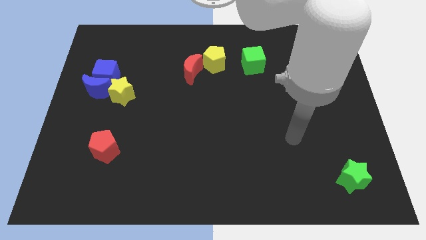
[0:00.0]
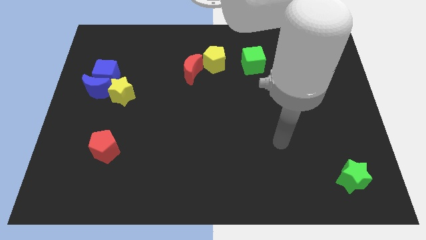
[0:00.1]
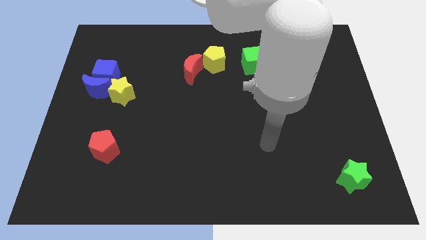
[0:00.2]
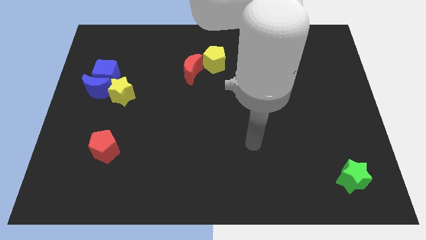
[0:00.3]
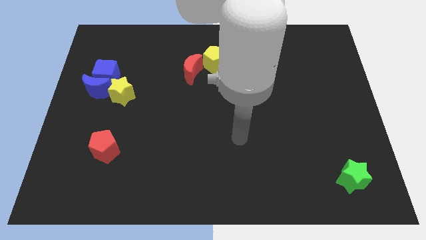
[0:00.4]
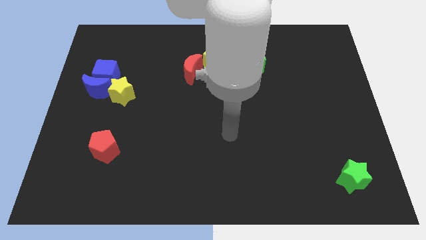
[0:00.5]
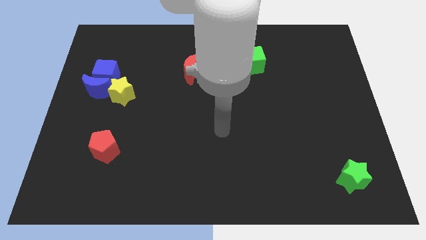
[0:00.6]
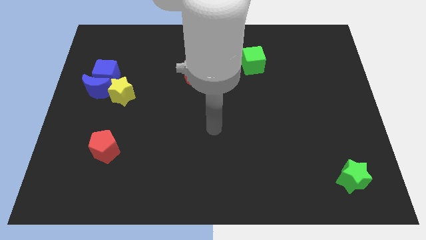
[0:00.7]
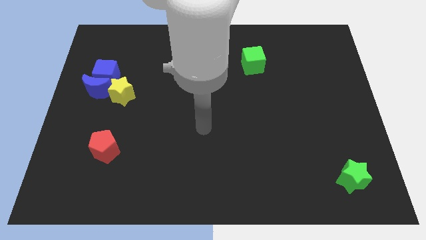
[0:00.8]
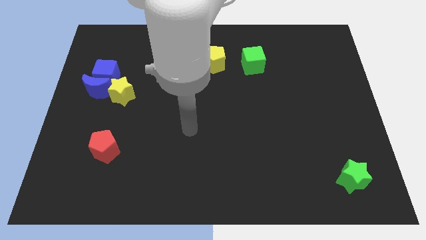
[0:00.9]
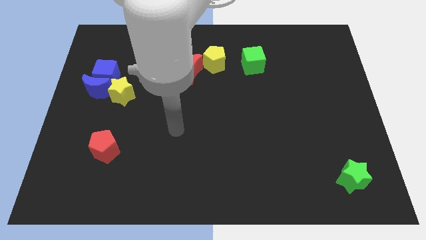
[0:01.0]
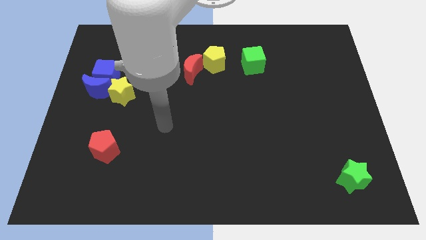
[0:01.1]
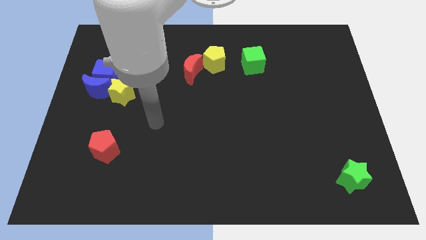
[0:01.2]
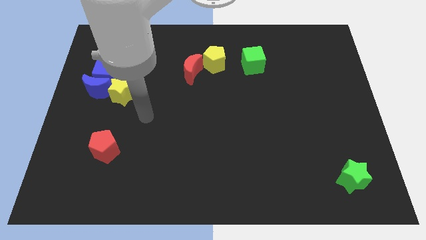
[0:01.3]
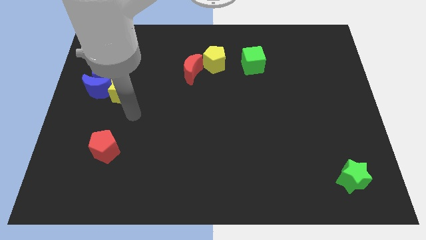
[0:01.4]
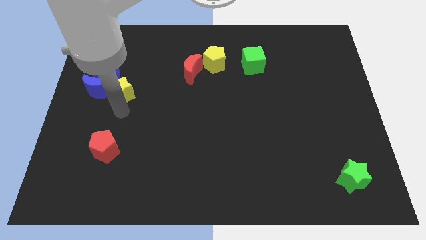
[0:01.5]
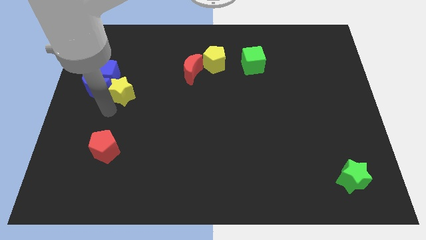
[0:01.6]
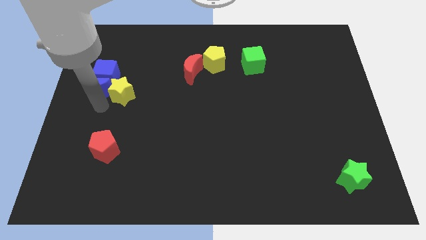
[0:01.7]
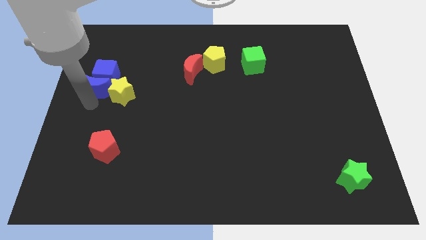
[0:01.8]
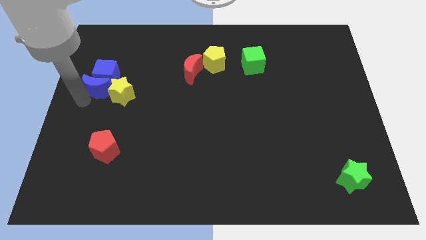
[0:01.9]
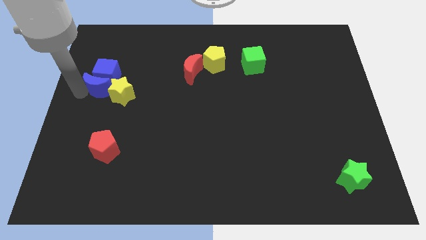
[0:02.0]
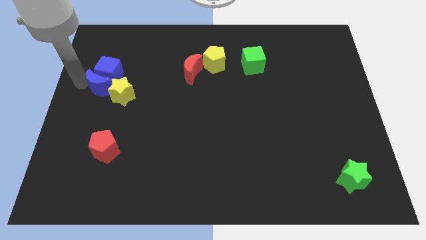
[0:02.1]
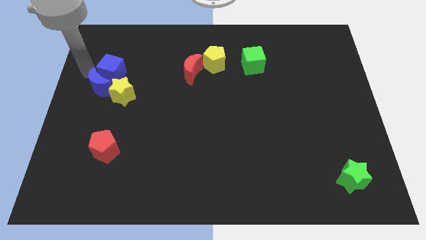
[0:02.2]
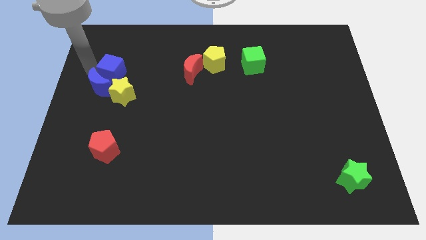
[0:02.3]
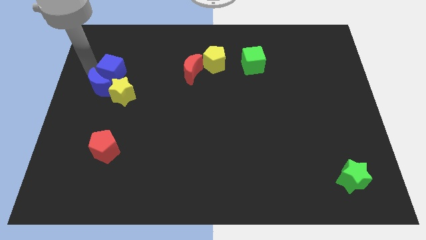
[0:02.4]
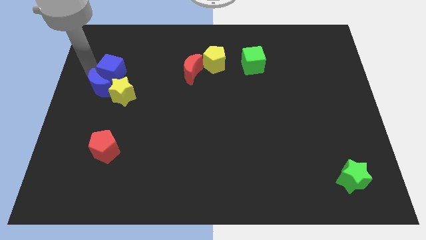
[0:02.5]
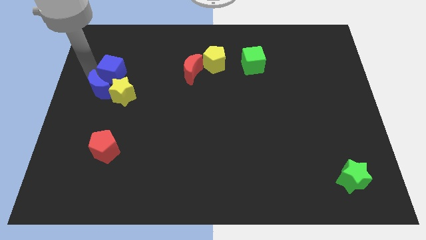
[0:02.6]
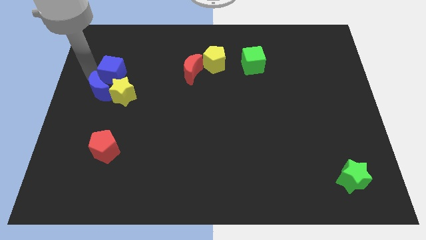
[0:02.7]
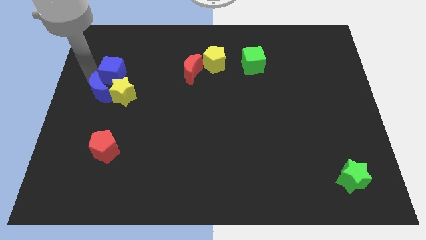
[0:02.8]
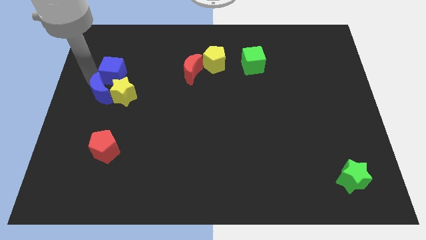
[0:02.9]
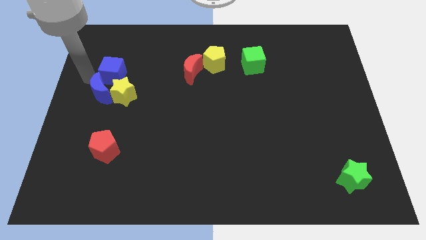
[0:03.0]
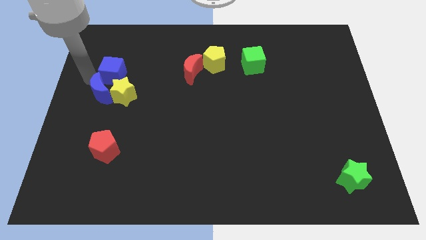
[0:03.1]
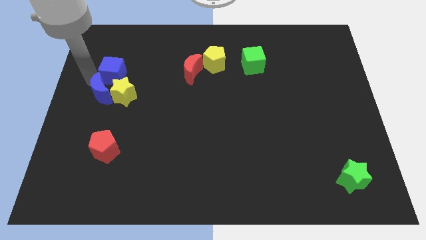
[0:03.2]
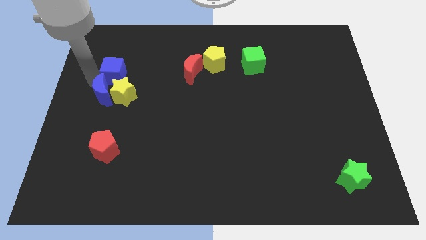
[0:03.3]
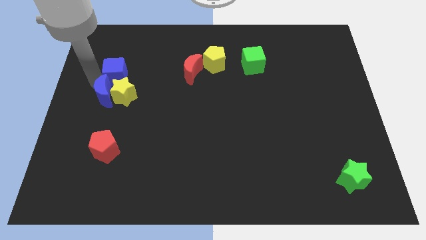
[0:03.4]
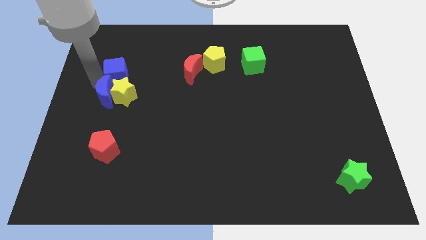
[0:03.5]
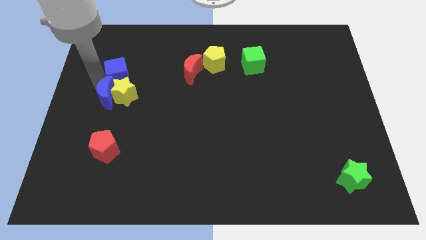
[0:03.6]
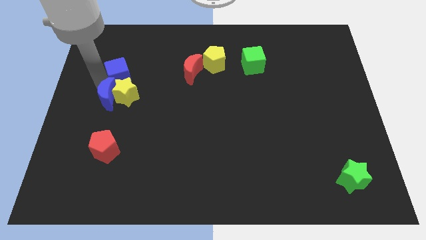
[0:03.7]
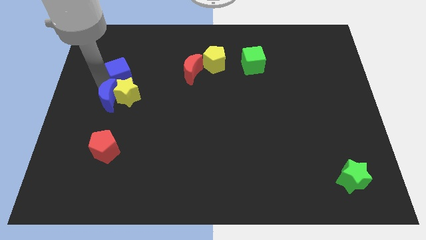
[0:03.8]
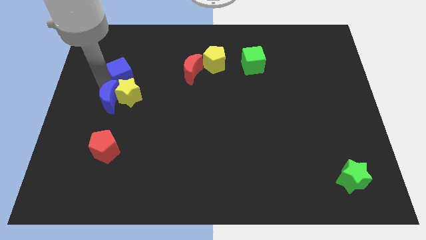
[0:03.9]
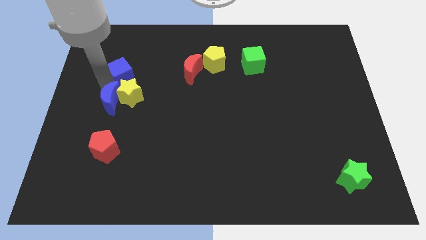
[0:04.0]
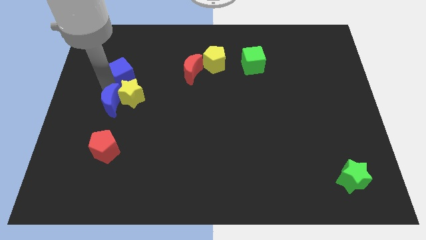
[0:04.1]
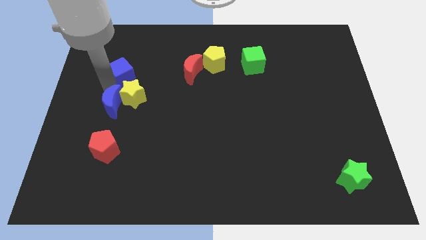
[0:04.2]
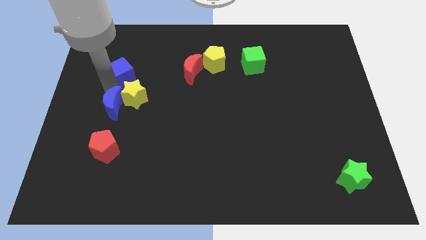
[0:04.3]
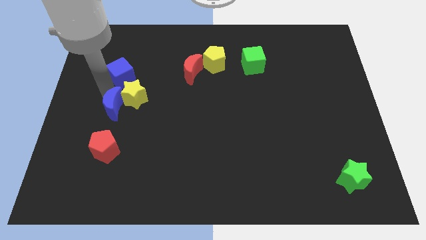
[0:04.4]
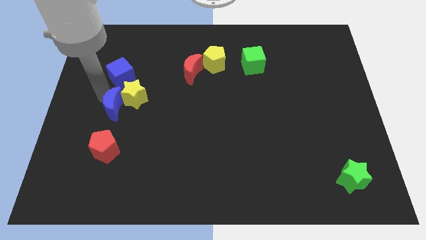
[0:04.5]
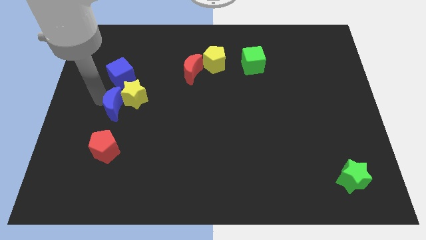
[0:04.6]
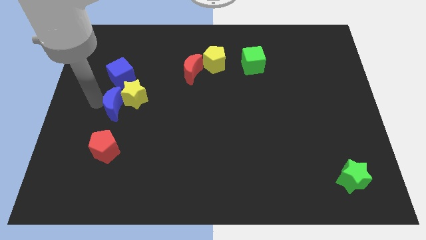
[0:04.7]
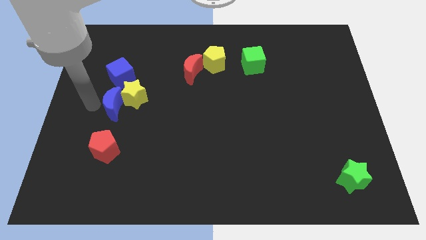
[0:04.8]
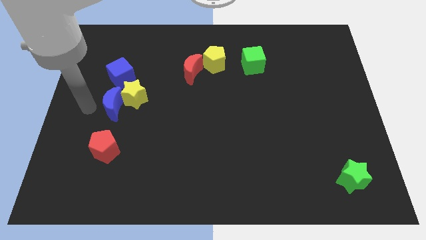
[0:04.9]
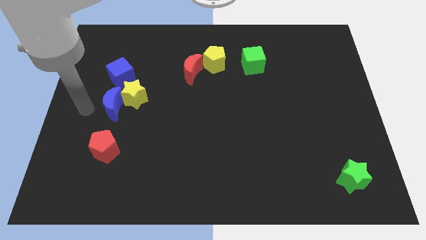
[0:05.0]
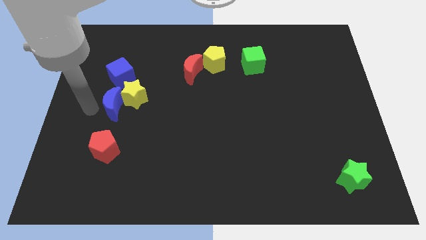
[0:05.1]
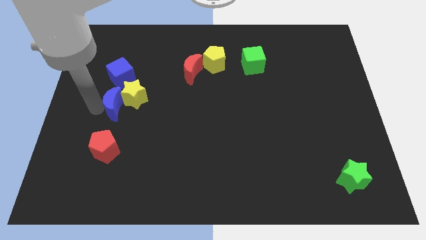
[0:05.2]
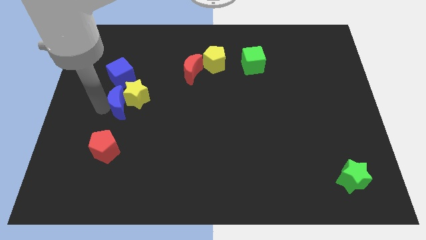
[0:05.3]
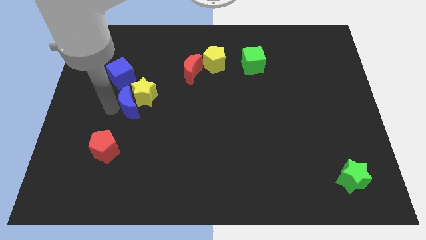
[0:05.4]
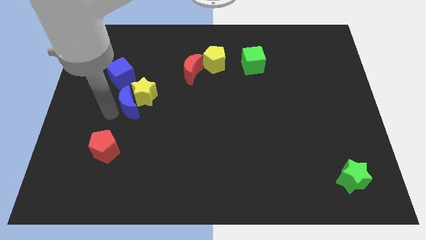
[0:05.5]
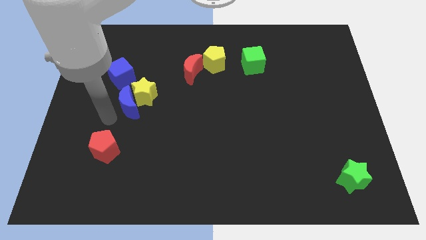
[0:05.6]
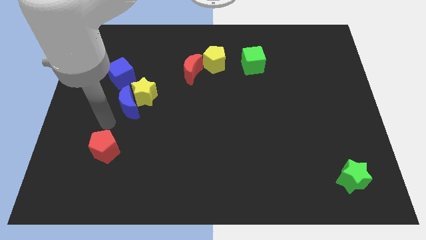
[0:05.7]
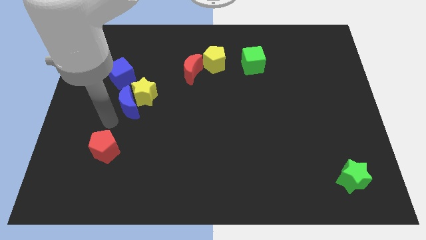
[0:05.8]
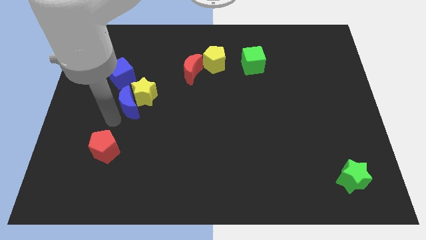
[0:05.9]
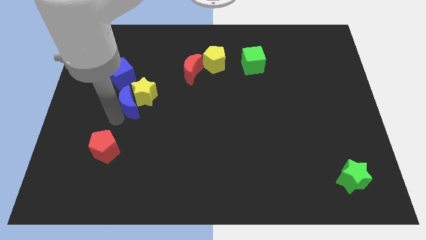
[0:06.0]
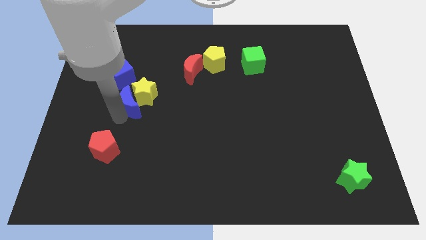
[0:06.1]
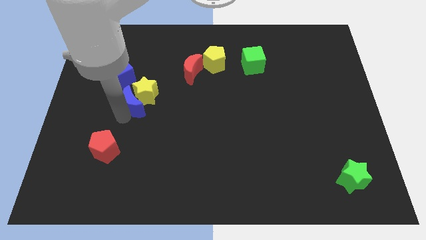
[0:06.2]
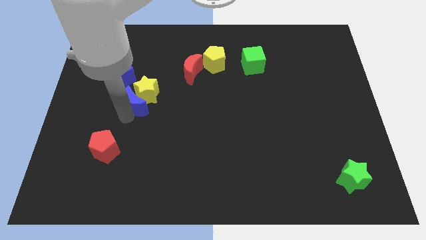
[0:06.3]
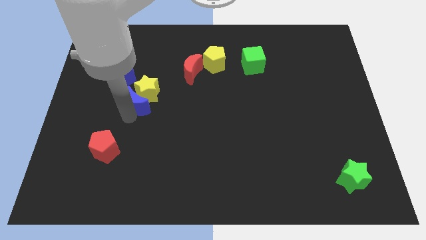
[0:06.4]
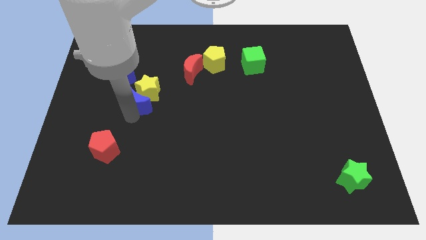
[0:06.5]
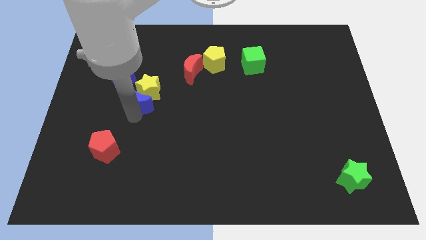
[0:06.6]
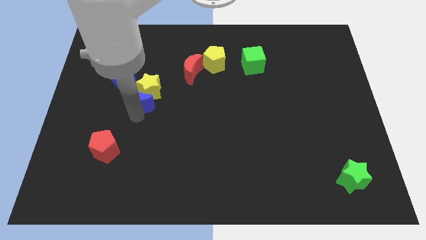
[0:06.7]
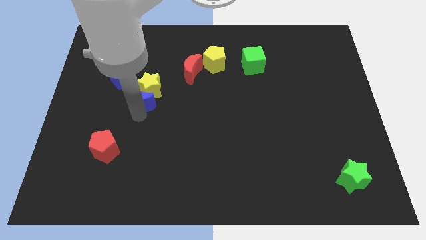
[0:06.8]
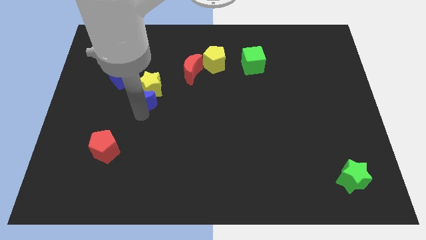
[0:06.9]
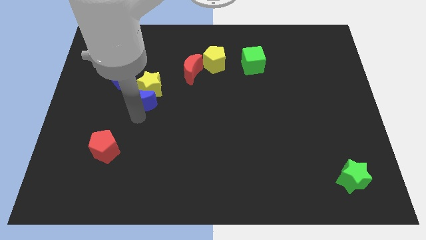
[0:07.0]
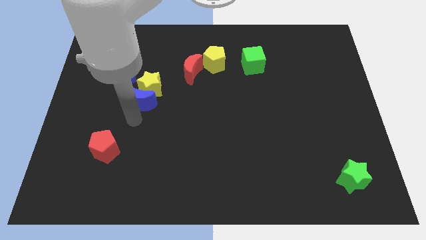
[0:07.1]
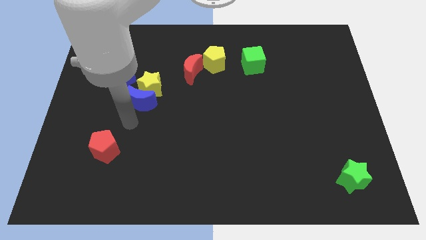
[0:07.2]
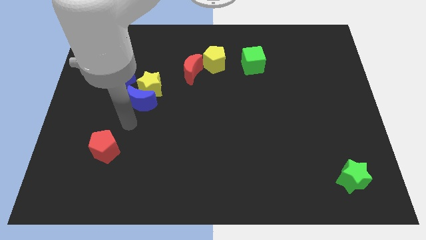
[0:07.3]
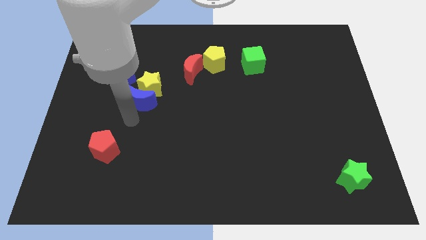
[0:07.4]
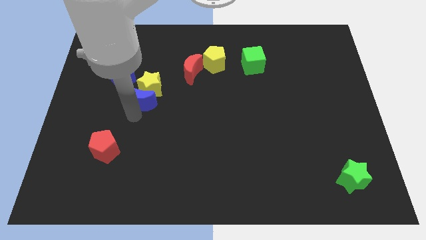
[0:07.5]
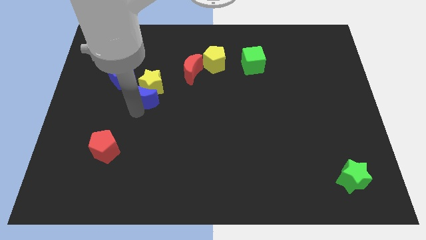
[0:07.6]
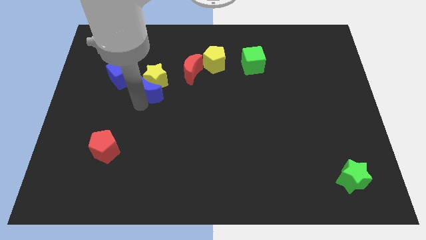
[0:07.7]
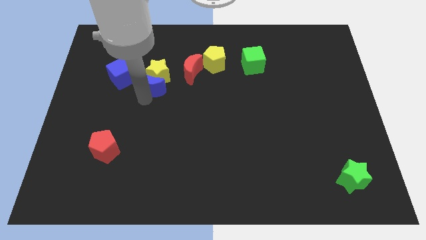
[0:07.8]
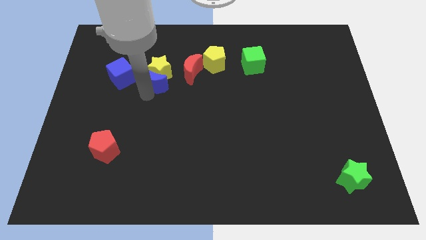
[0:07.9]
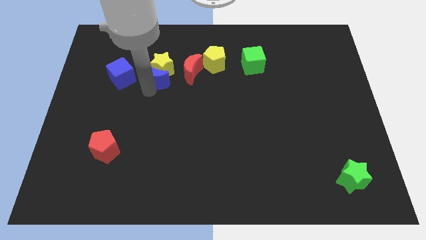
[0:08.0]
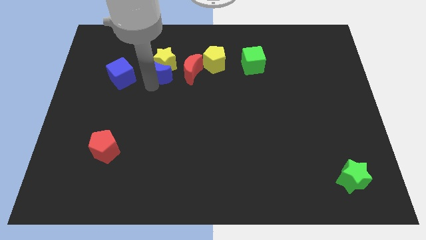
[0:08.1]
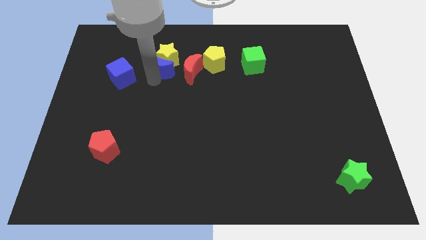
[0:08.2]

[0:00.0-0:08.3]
push the blue moon just left of the yellow pentagon
